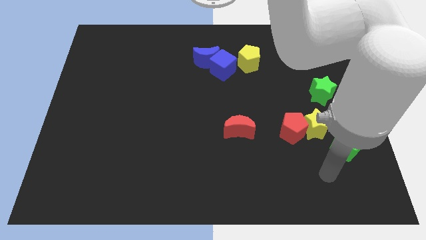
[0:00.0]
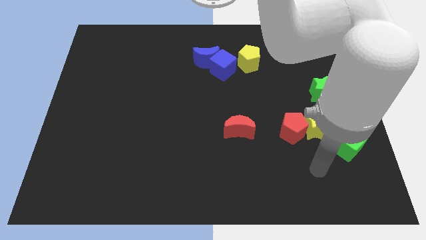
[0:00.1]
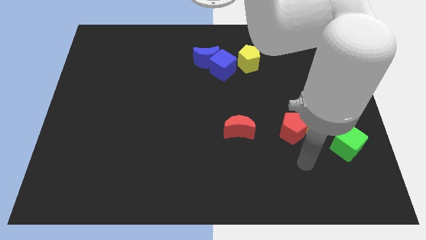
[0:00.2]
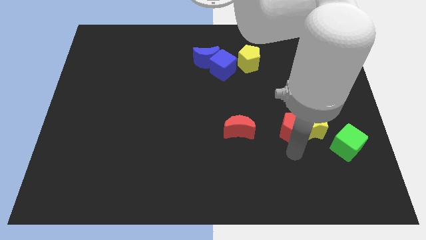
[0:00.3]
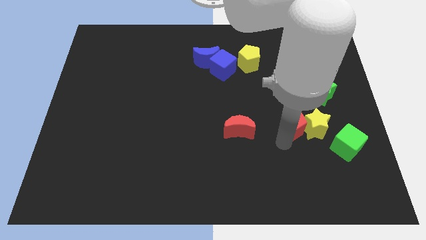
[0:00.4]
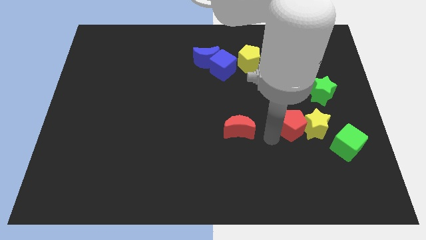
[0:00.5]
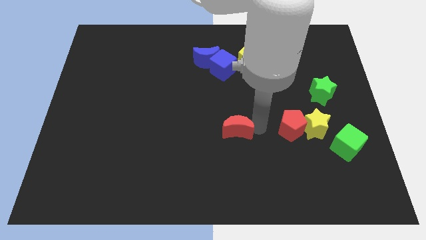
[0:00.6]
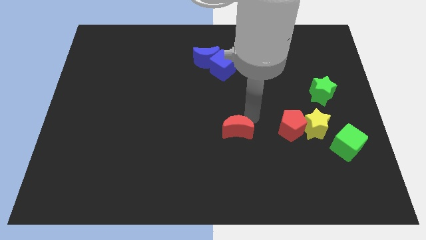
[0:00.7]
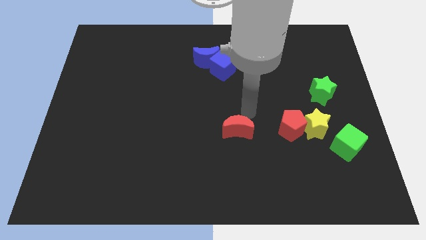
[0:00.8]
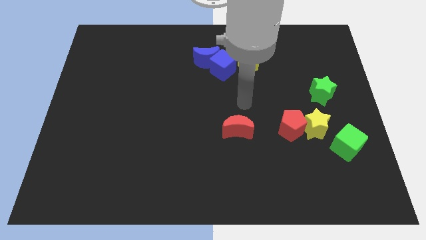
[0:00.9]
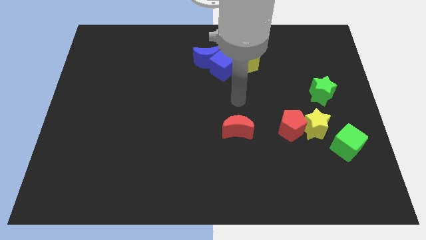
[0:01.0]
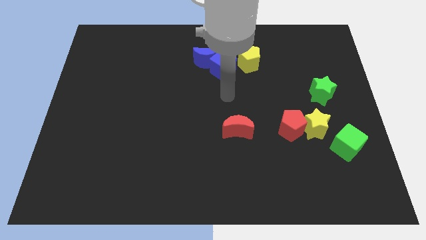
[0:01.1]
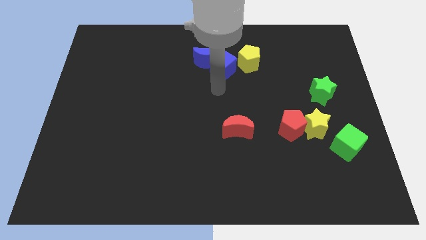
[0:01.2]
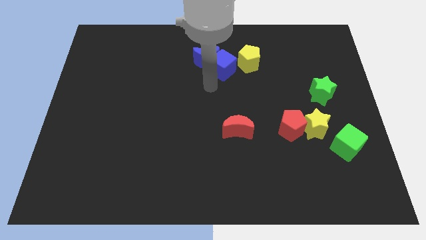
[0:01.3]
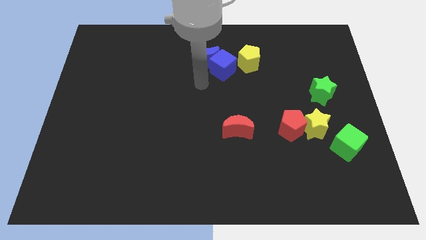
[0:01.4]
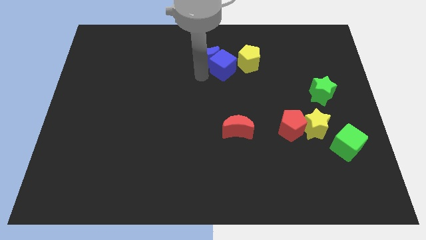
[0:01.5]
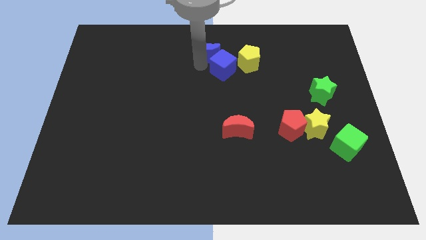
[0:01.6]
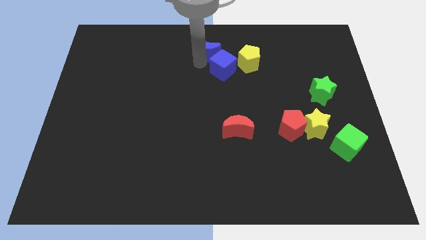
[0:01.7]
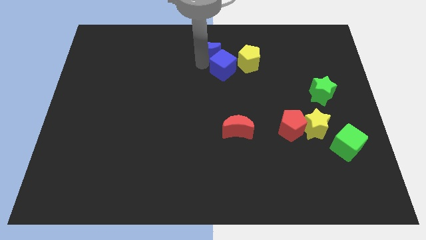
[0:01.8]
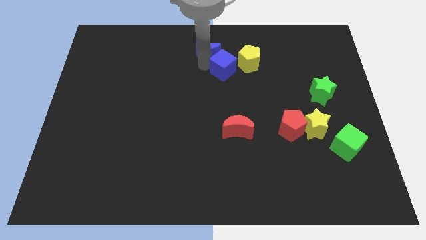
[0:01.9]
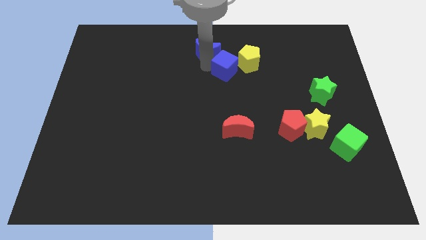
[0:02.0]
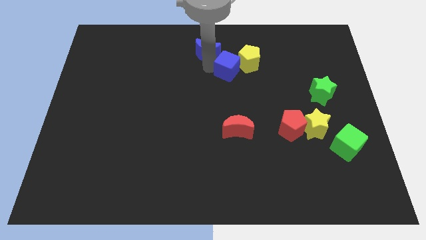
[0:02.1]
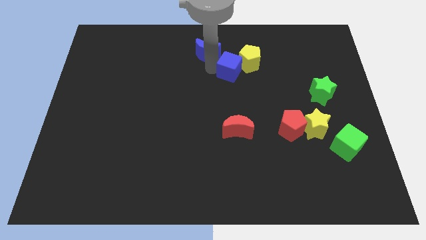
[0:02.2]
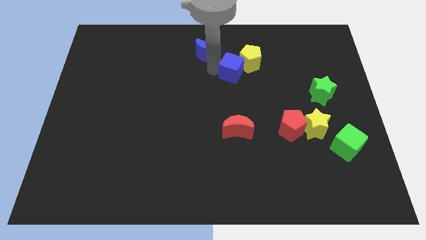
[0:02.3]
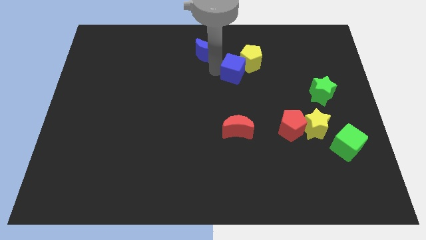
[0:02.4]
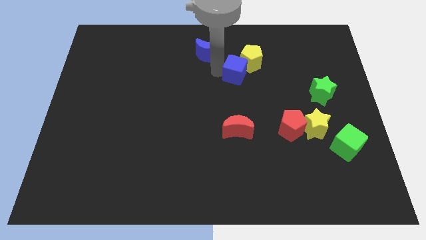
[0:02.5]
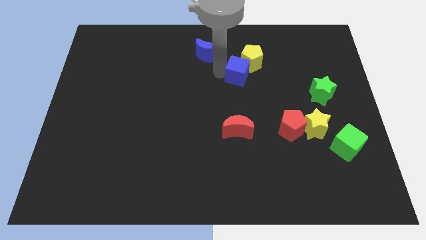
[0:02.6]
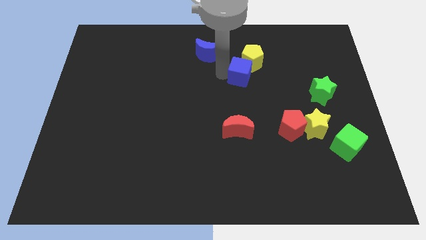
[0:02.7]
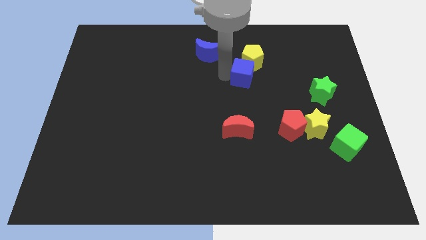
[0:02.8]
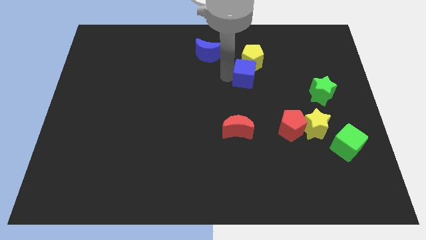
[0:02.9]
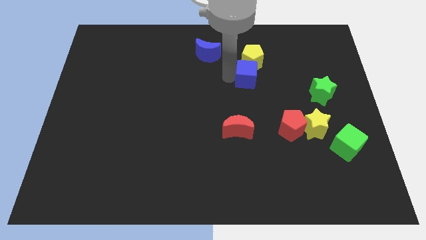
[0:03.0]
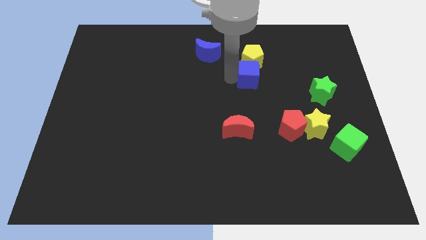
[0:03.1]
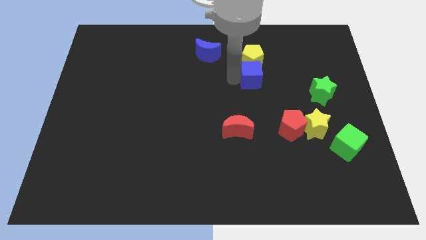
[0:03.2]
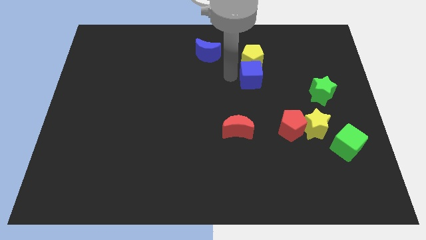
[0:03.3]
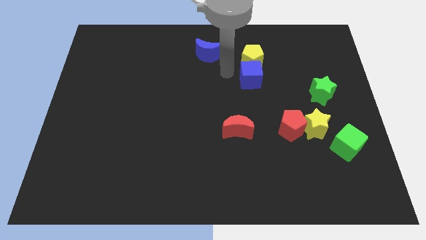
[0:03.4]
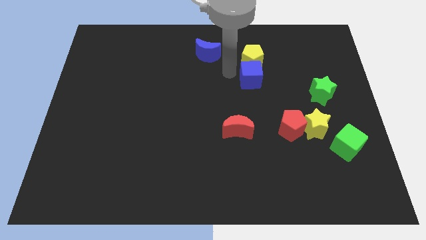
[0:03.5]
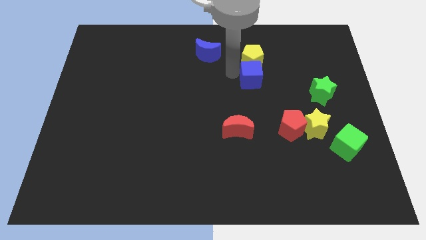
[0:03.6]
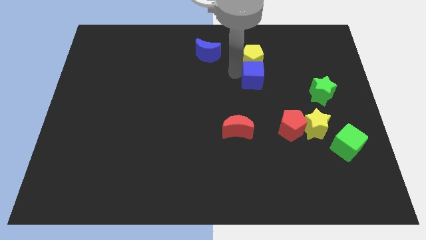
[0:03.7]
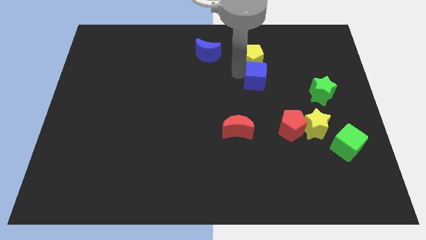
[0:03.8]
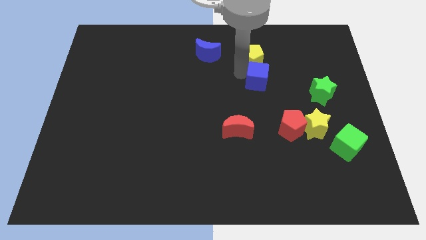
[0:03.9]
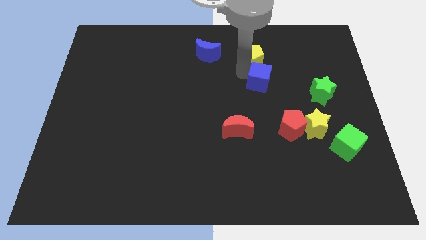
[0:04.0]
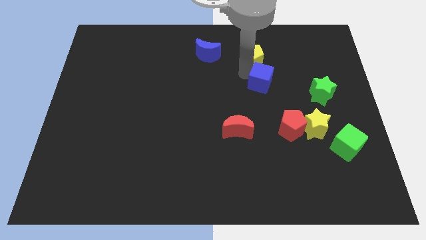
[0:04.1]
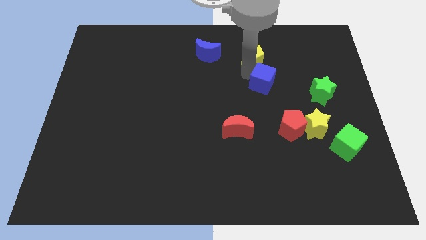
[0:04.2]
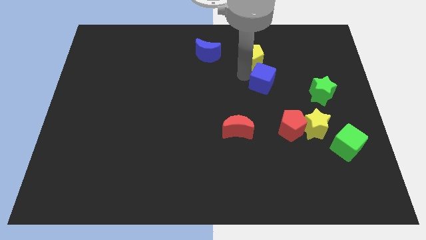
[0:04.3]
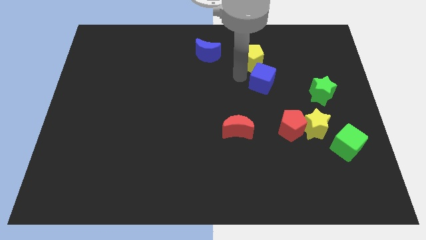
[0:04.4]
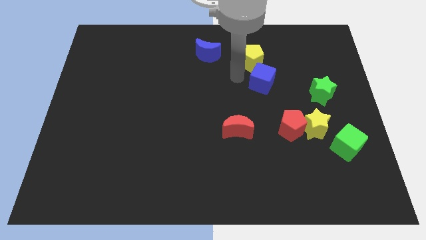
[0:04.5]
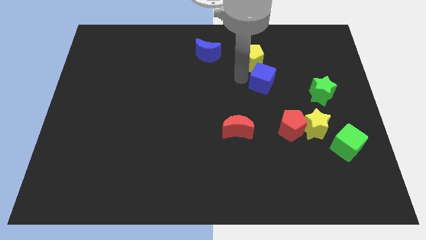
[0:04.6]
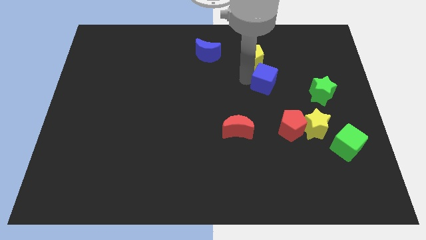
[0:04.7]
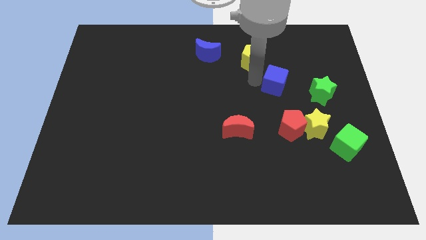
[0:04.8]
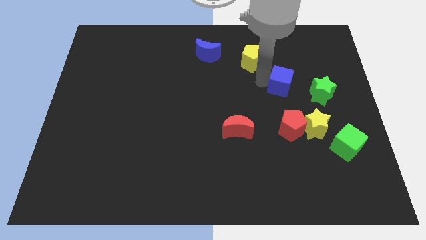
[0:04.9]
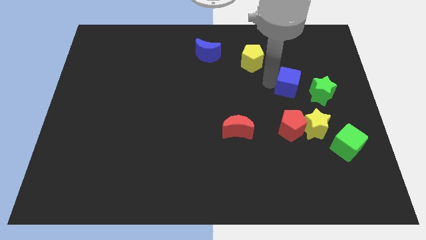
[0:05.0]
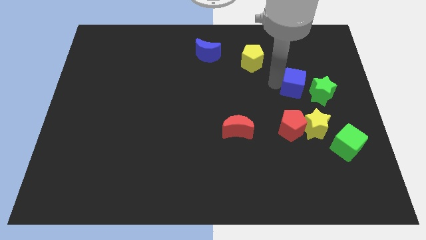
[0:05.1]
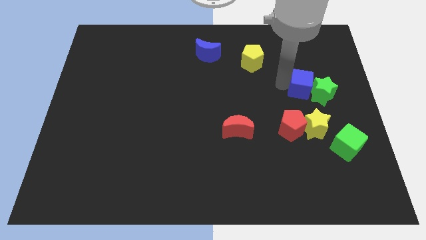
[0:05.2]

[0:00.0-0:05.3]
move the blue cube next to the green star

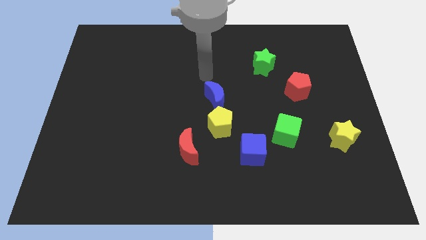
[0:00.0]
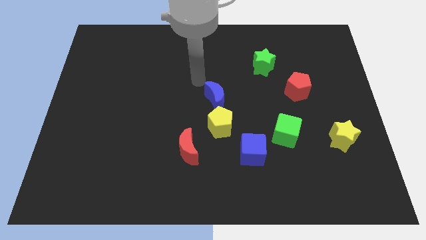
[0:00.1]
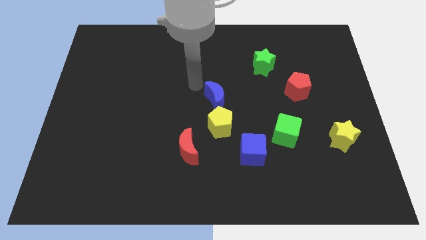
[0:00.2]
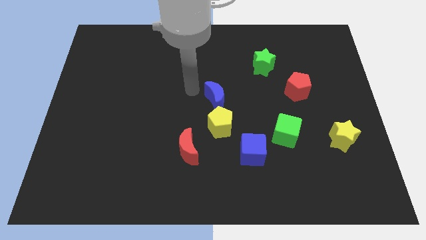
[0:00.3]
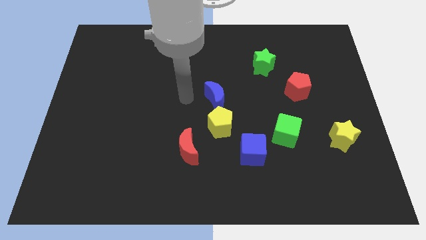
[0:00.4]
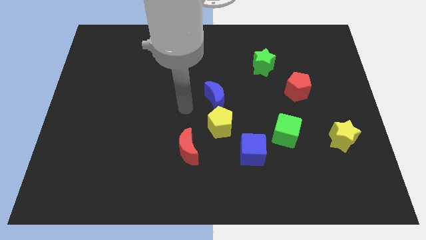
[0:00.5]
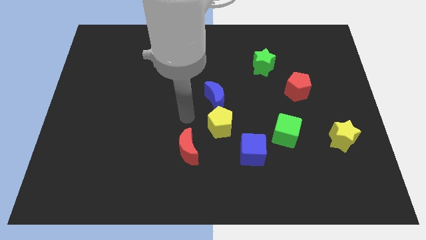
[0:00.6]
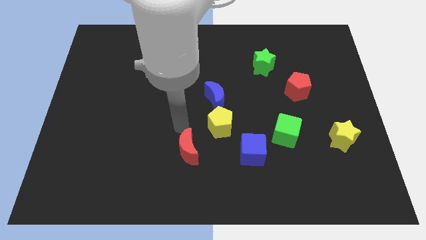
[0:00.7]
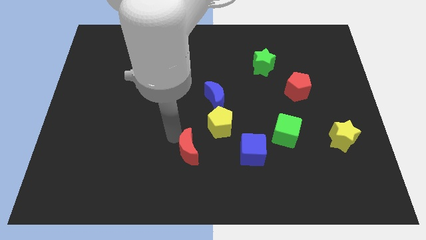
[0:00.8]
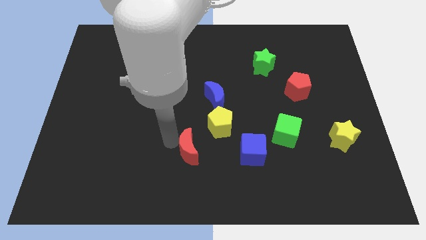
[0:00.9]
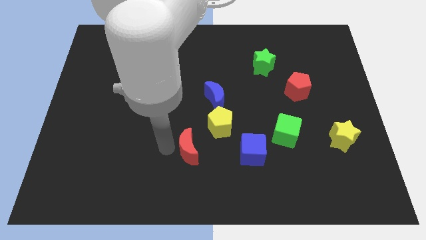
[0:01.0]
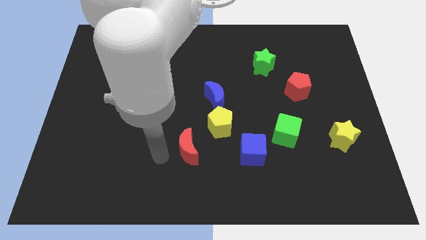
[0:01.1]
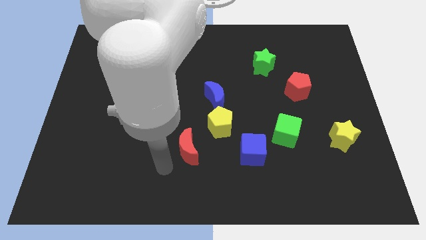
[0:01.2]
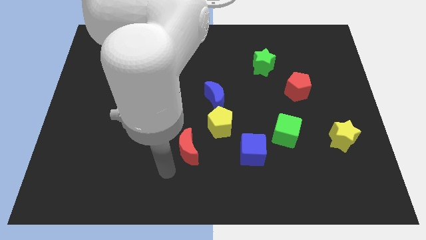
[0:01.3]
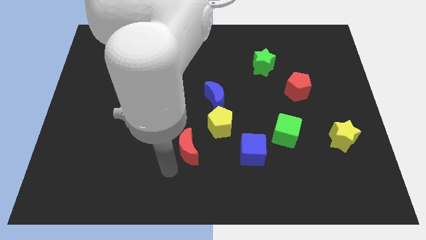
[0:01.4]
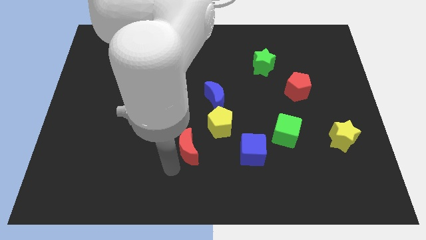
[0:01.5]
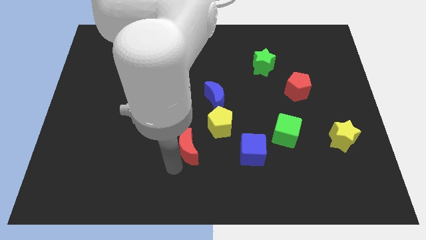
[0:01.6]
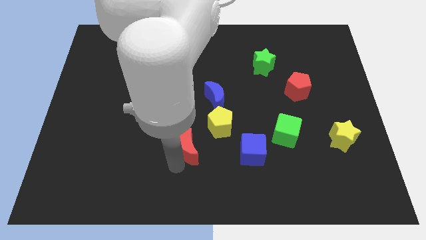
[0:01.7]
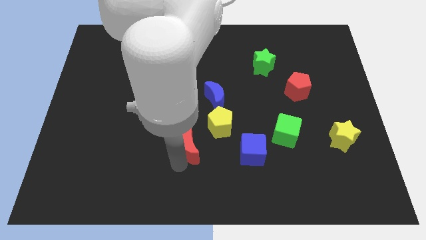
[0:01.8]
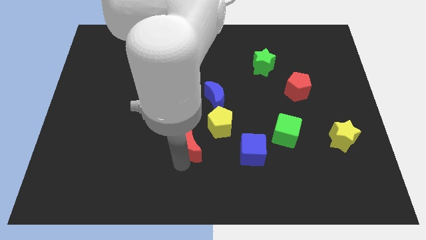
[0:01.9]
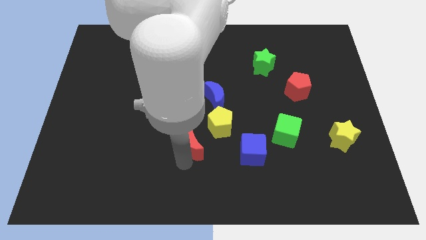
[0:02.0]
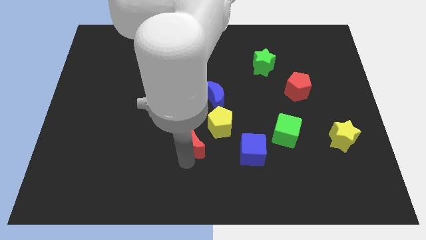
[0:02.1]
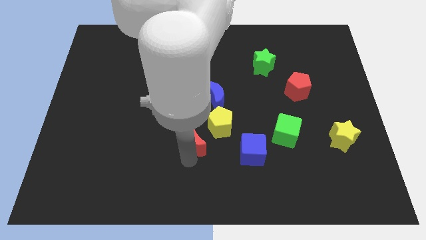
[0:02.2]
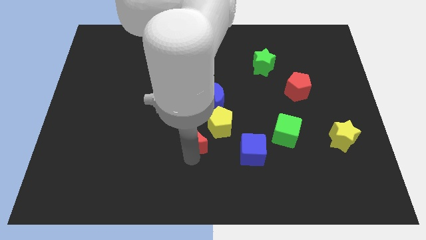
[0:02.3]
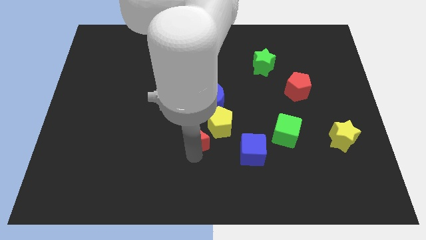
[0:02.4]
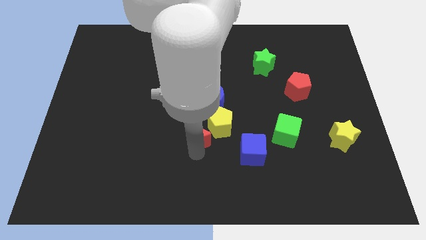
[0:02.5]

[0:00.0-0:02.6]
slide the red moon towards the yellow pentagon
